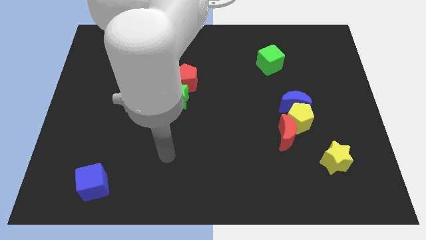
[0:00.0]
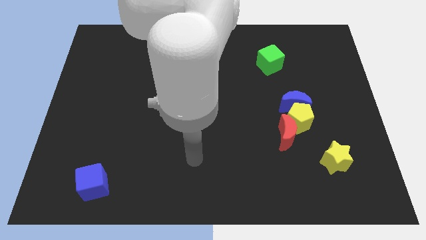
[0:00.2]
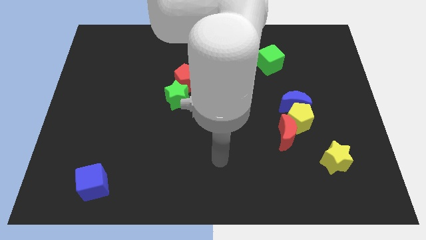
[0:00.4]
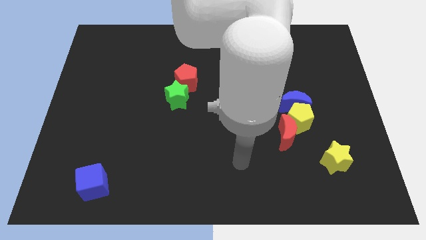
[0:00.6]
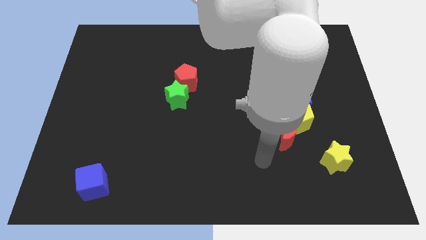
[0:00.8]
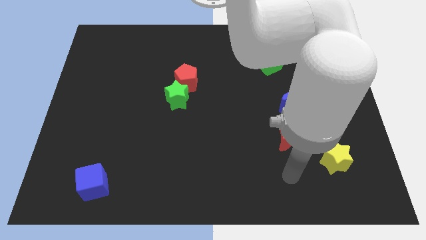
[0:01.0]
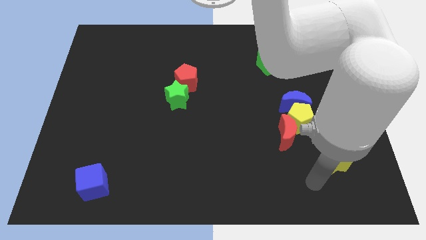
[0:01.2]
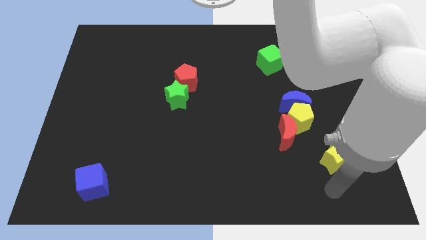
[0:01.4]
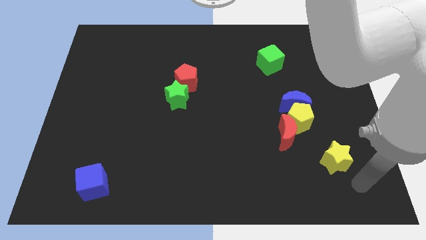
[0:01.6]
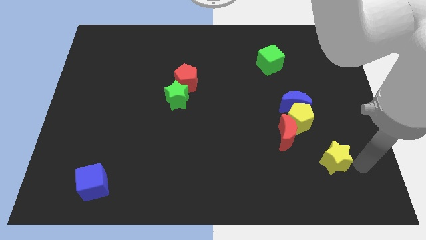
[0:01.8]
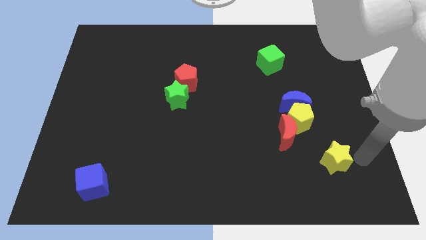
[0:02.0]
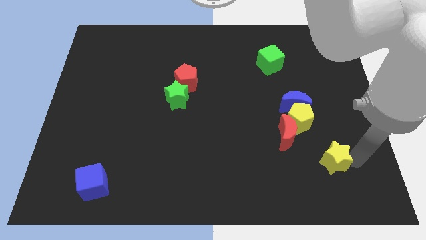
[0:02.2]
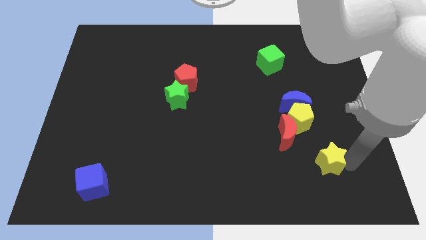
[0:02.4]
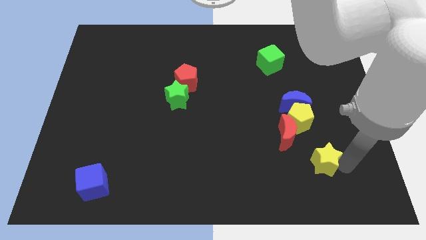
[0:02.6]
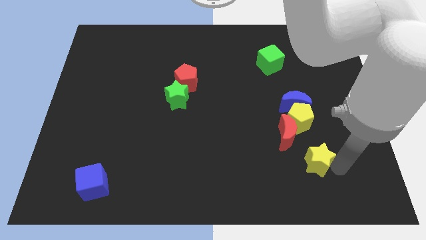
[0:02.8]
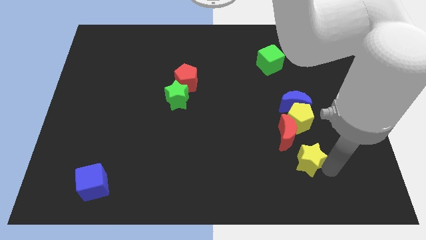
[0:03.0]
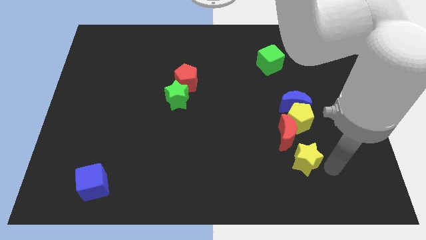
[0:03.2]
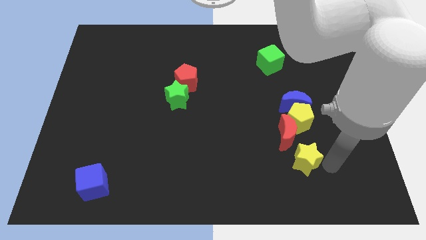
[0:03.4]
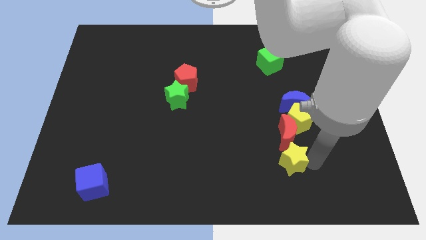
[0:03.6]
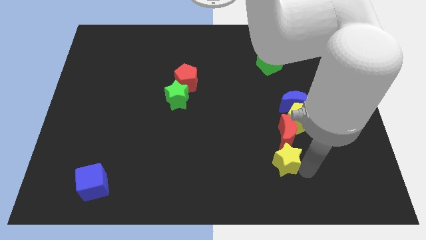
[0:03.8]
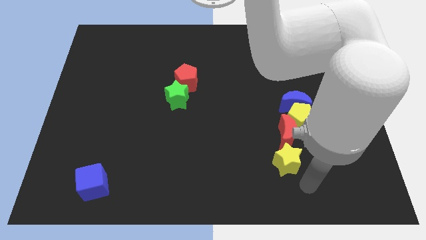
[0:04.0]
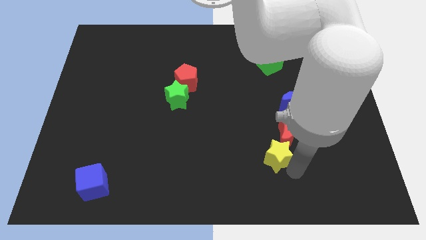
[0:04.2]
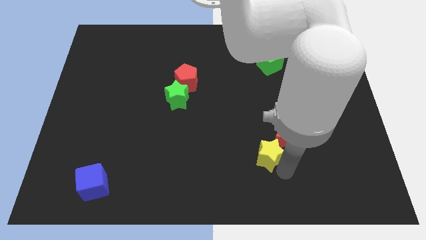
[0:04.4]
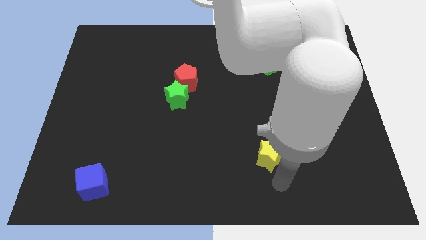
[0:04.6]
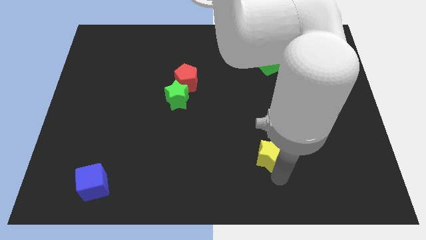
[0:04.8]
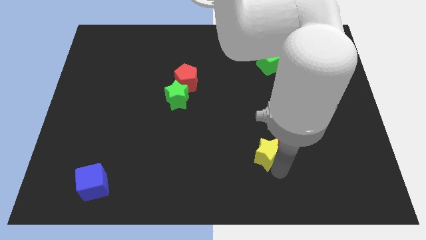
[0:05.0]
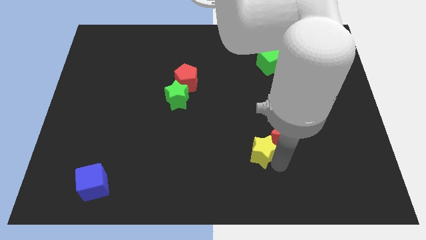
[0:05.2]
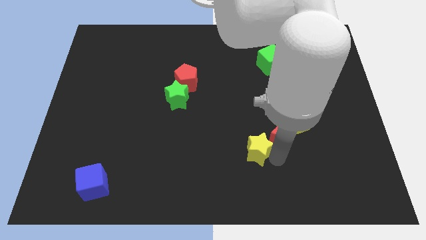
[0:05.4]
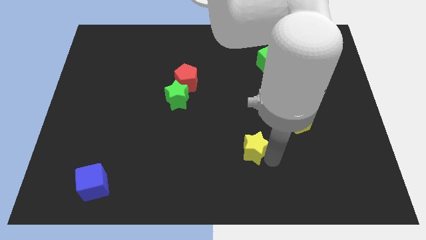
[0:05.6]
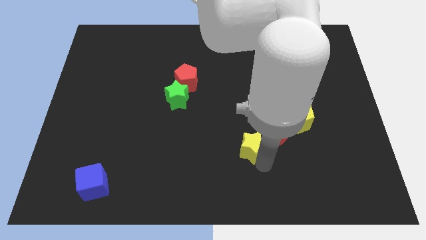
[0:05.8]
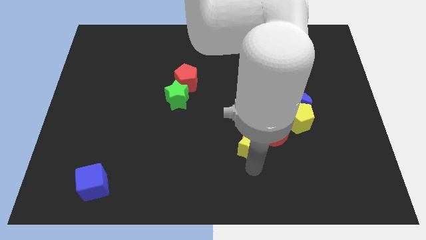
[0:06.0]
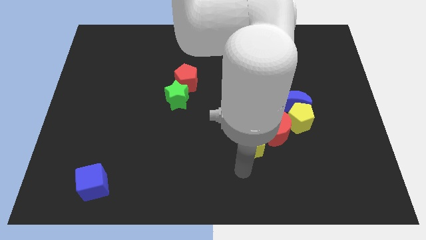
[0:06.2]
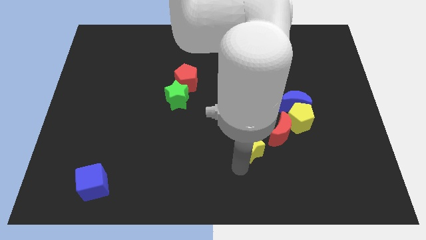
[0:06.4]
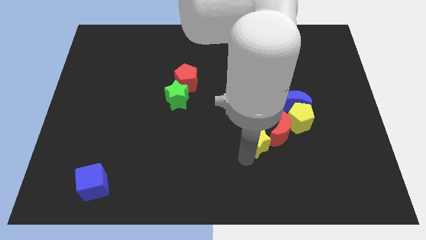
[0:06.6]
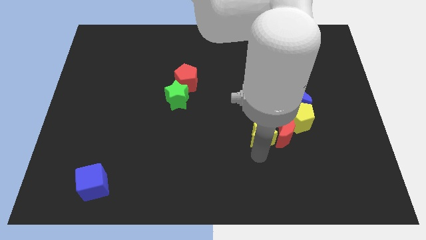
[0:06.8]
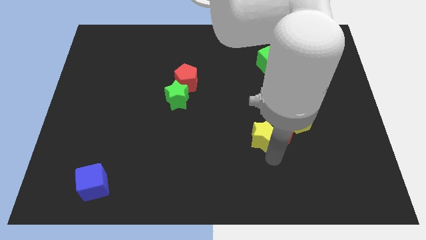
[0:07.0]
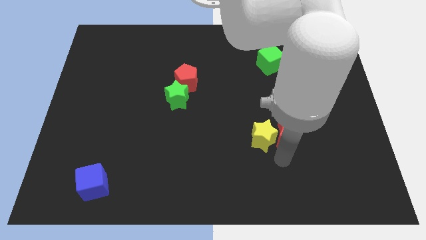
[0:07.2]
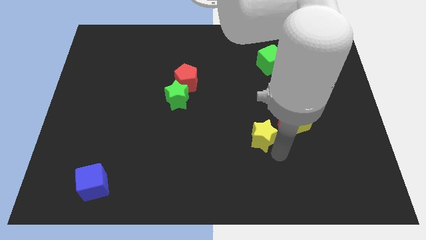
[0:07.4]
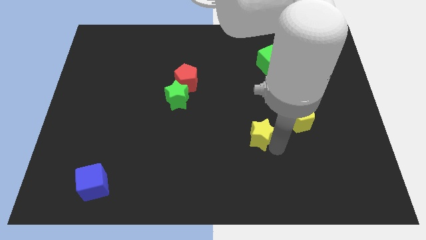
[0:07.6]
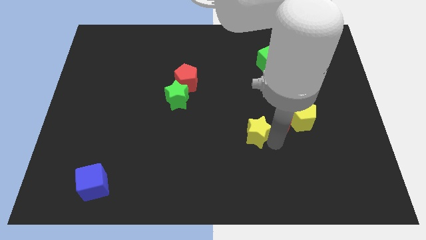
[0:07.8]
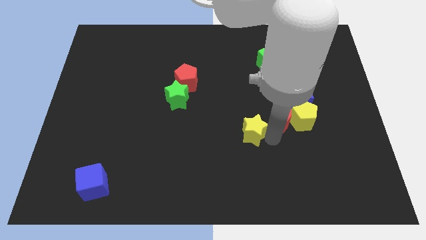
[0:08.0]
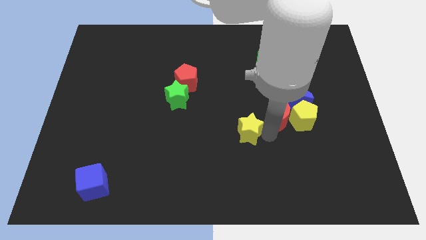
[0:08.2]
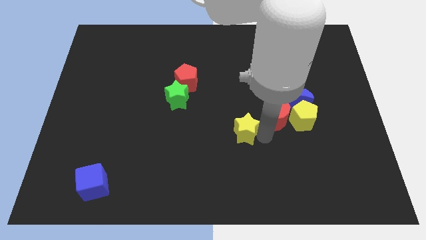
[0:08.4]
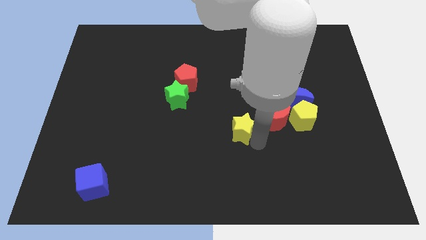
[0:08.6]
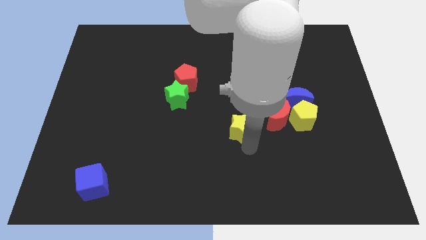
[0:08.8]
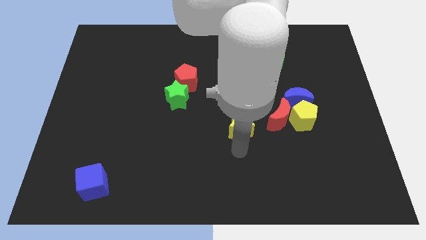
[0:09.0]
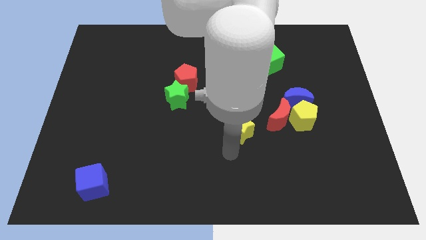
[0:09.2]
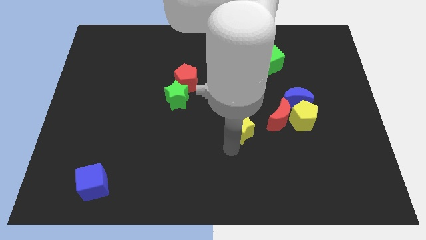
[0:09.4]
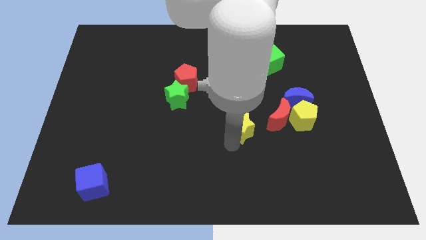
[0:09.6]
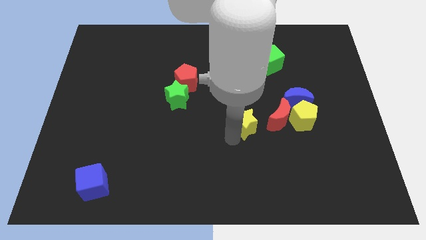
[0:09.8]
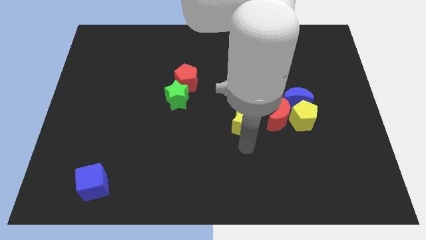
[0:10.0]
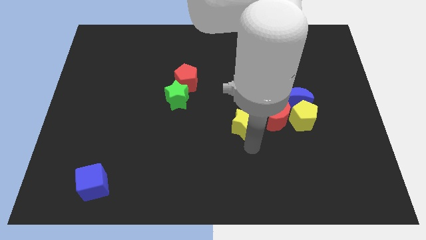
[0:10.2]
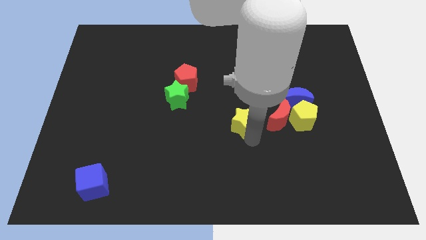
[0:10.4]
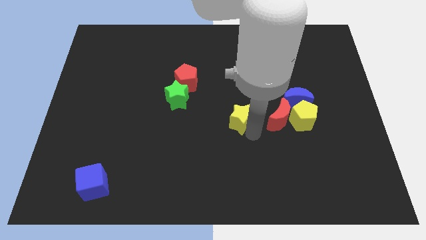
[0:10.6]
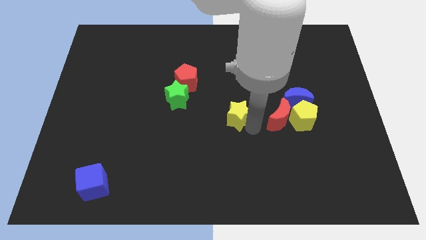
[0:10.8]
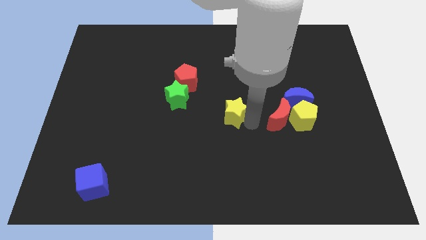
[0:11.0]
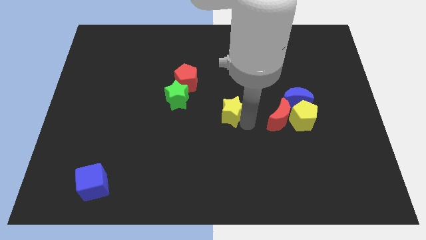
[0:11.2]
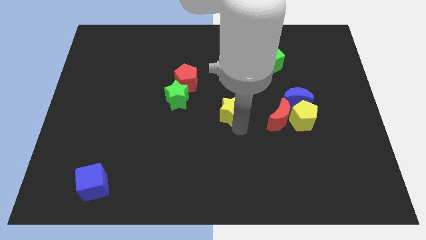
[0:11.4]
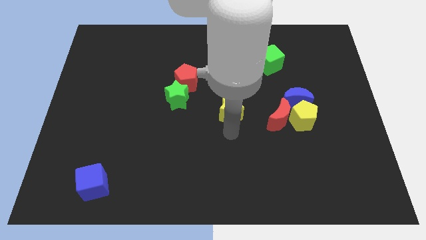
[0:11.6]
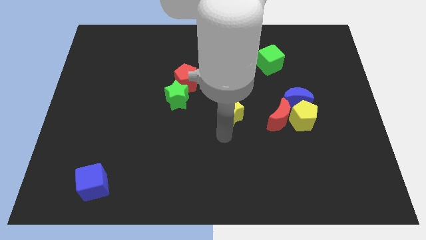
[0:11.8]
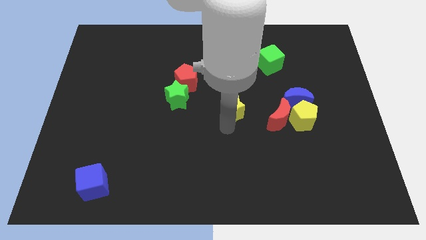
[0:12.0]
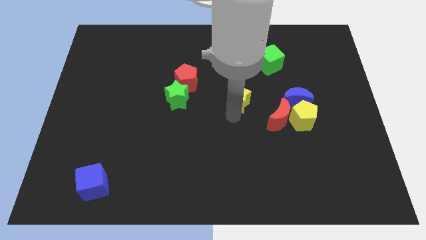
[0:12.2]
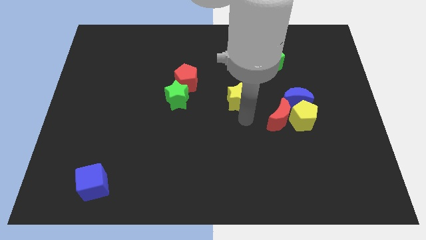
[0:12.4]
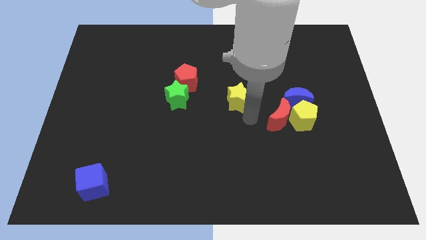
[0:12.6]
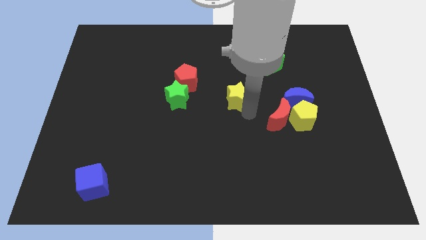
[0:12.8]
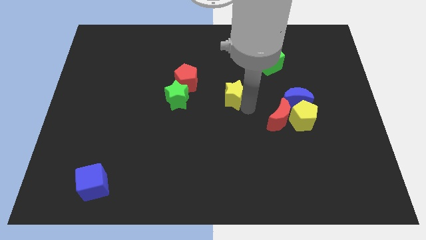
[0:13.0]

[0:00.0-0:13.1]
push the yellow star to the right of the red pentagon

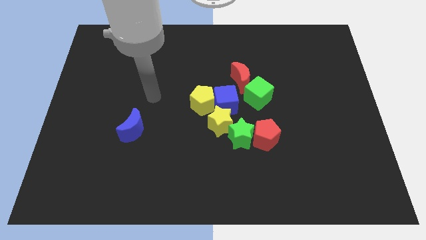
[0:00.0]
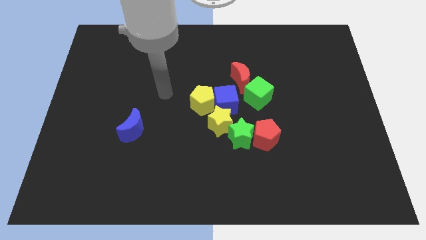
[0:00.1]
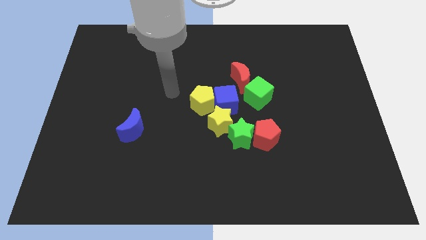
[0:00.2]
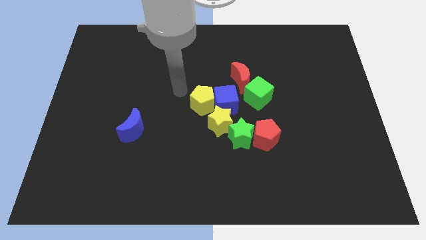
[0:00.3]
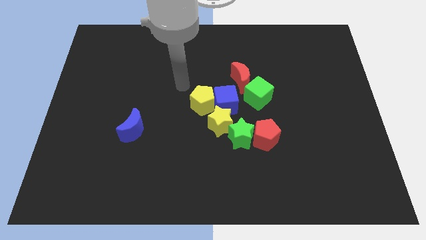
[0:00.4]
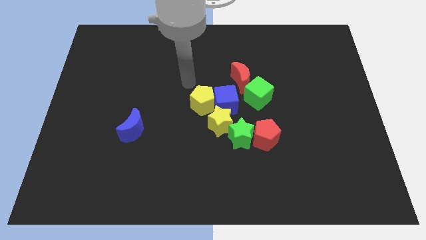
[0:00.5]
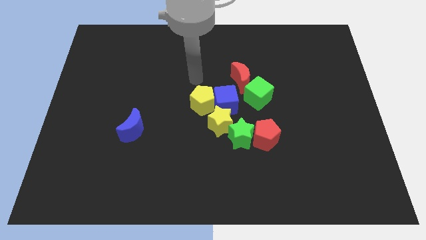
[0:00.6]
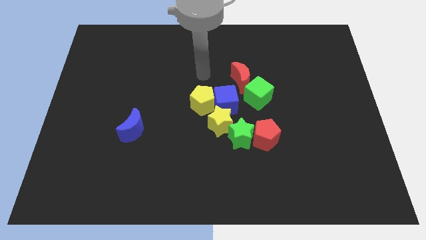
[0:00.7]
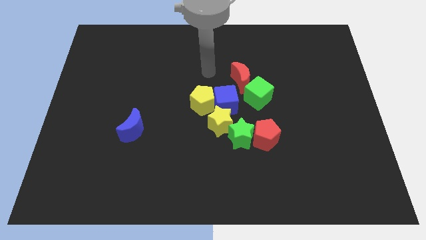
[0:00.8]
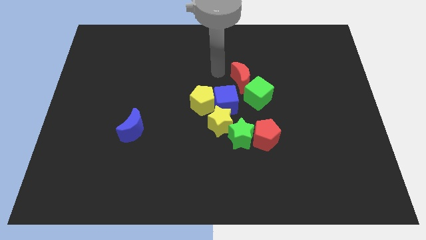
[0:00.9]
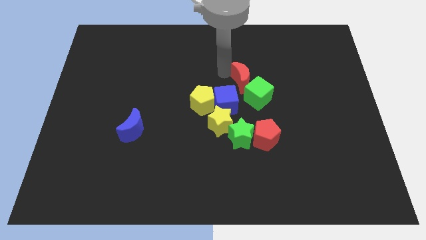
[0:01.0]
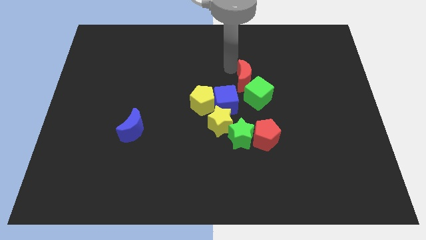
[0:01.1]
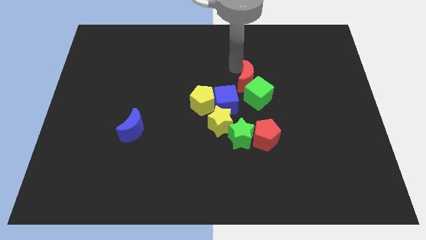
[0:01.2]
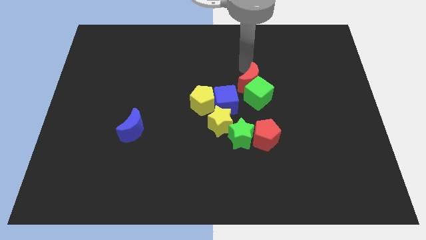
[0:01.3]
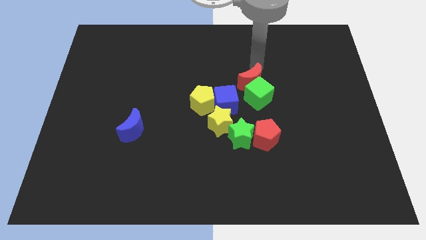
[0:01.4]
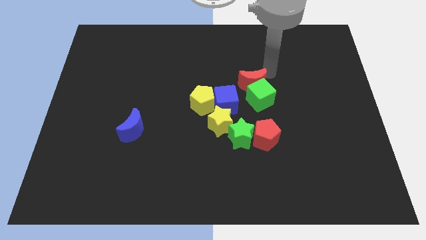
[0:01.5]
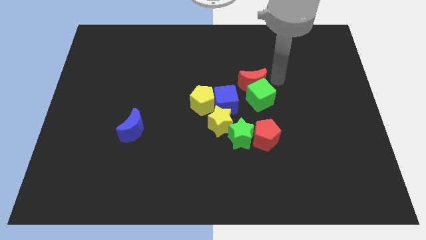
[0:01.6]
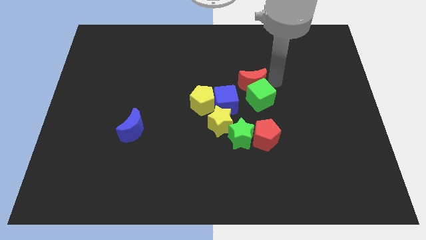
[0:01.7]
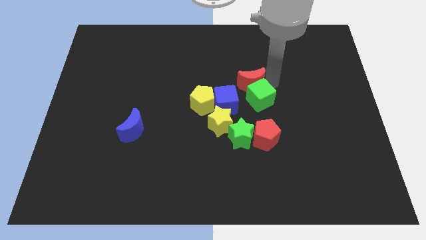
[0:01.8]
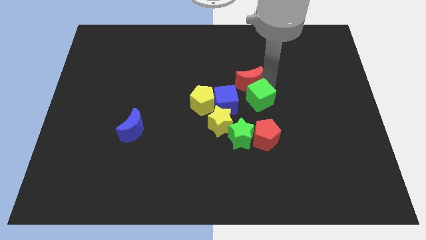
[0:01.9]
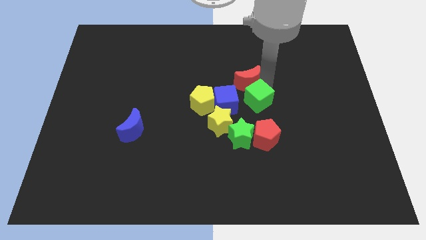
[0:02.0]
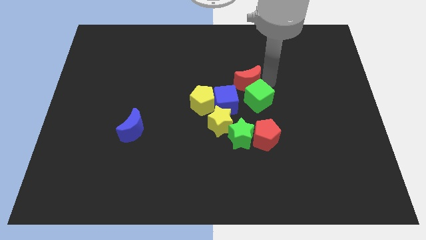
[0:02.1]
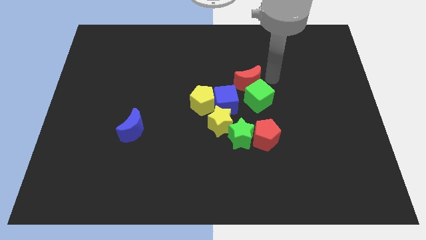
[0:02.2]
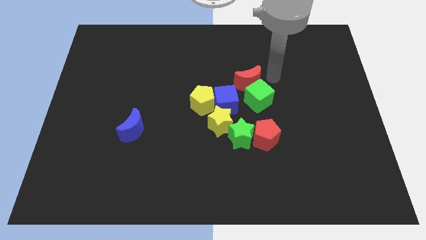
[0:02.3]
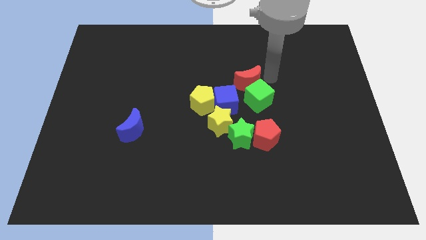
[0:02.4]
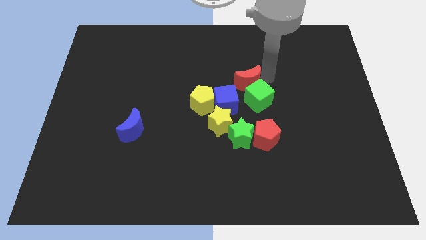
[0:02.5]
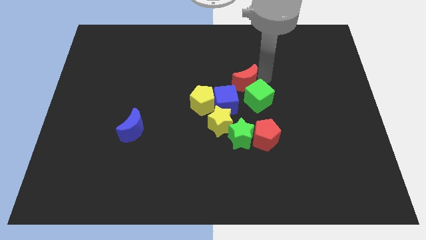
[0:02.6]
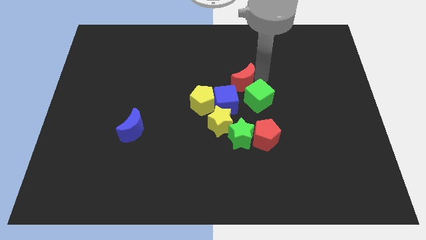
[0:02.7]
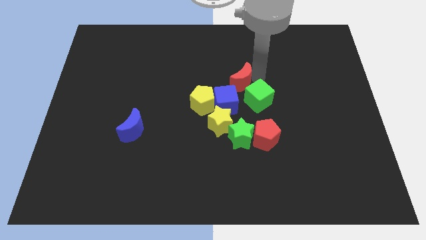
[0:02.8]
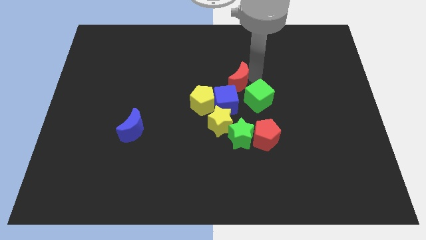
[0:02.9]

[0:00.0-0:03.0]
put the red moon above the yellow star
